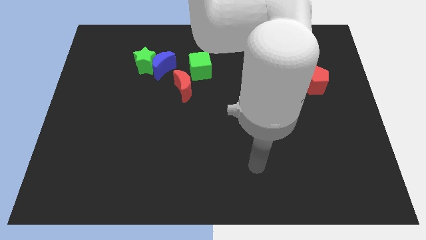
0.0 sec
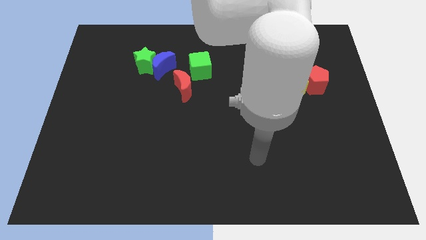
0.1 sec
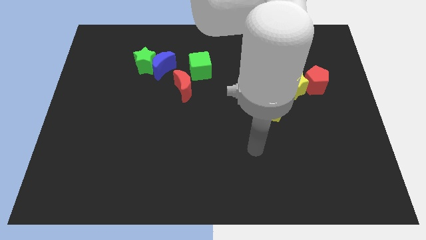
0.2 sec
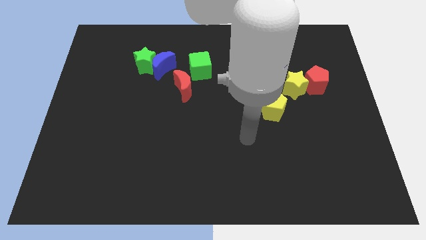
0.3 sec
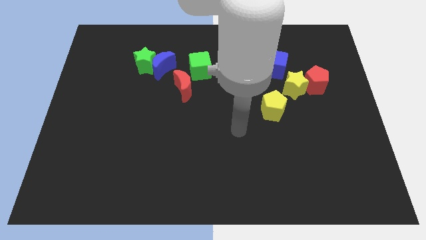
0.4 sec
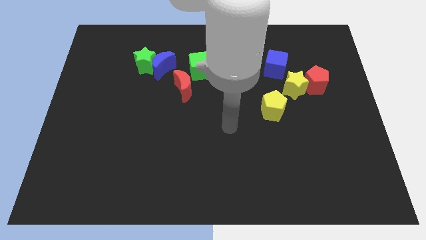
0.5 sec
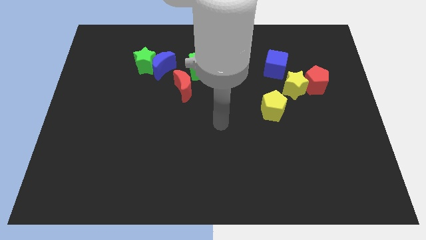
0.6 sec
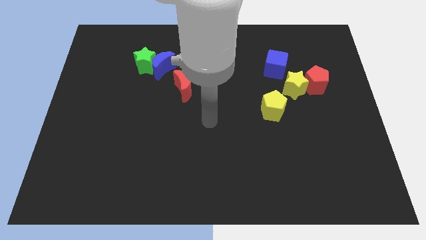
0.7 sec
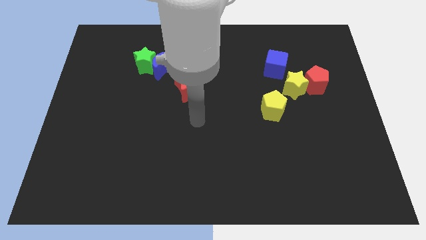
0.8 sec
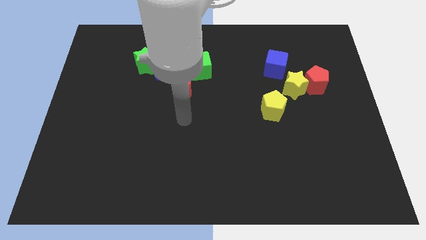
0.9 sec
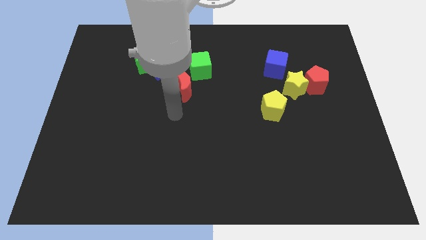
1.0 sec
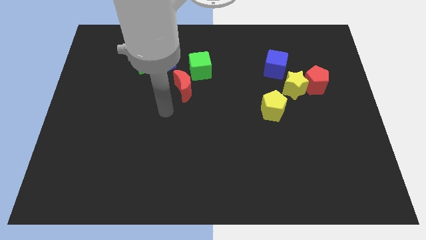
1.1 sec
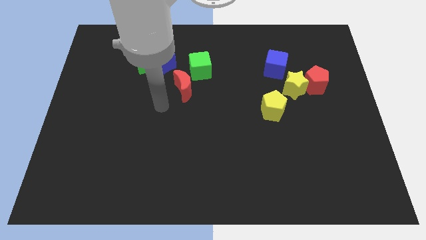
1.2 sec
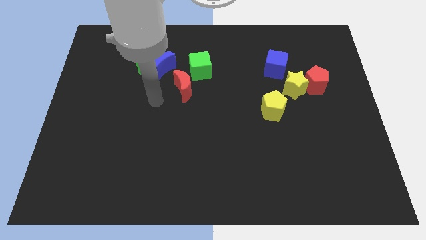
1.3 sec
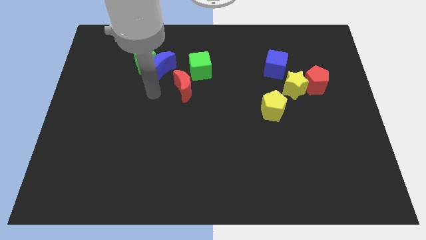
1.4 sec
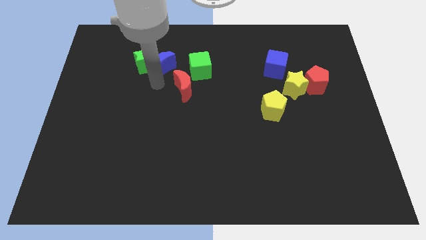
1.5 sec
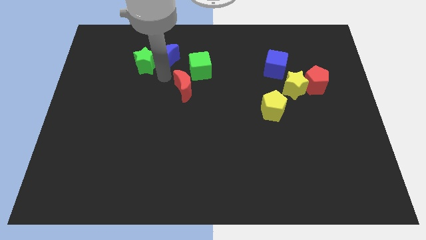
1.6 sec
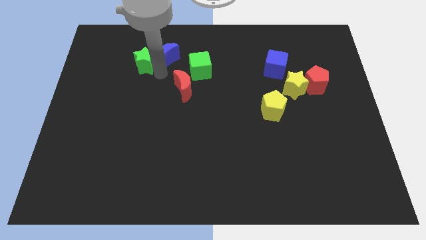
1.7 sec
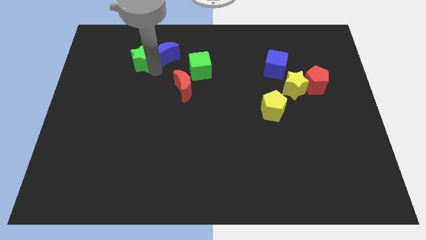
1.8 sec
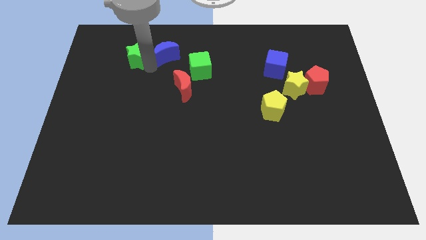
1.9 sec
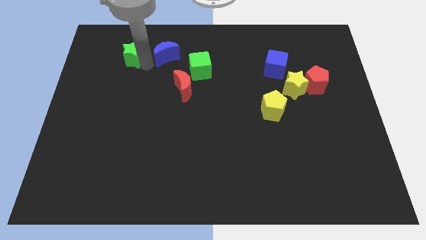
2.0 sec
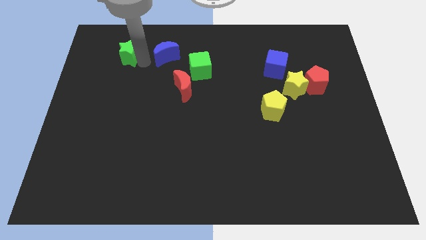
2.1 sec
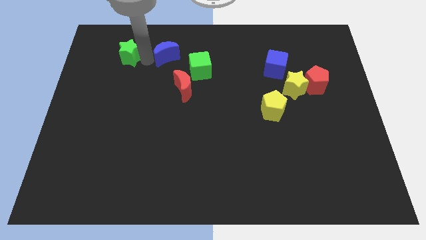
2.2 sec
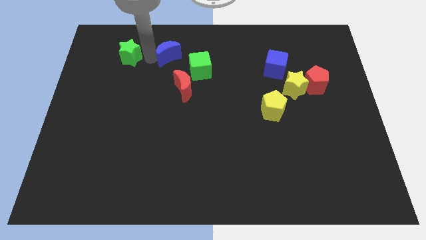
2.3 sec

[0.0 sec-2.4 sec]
separate the green star from the blue moon

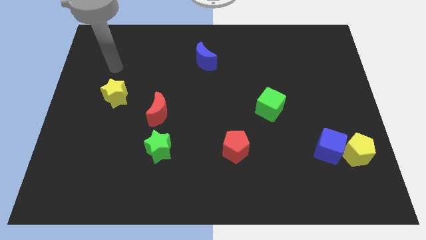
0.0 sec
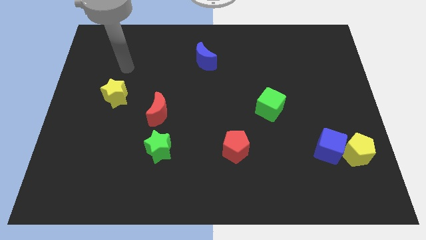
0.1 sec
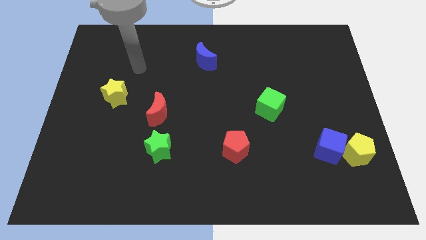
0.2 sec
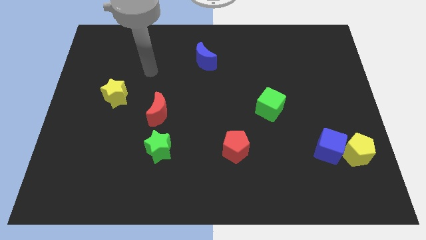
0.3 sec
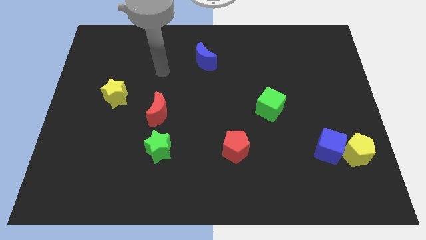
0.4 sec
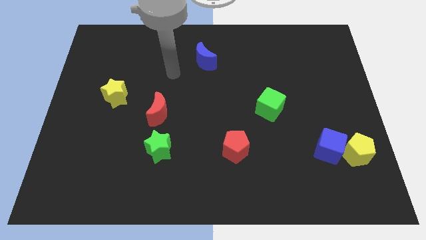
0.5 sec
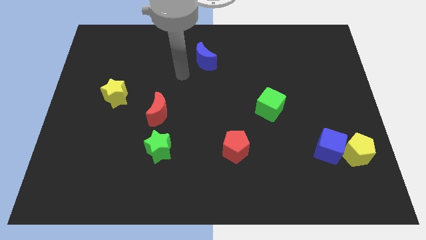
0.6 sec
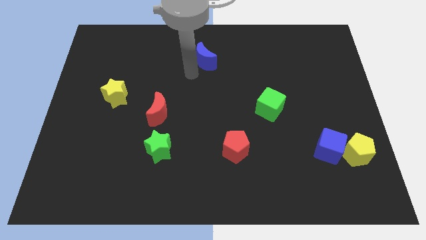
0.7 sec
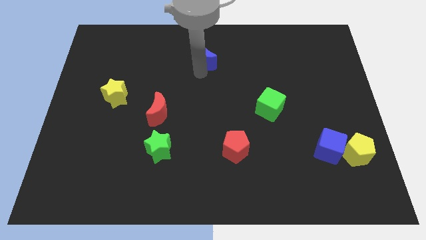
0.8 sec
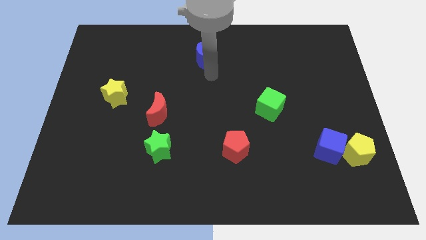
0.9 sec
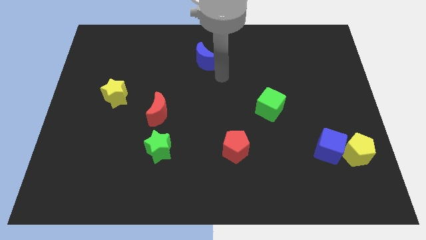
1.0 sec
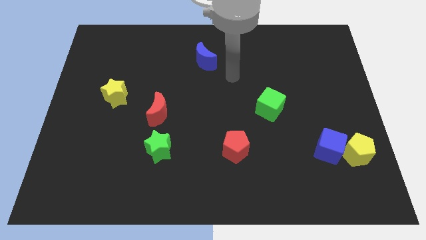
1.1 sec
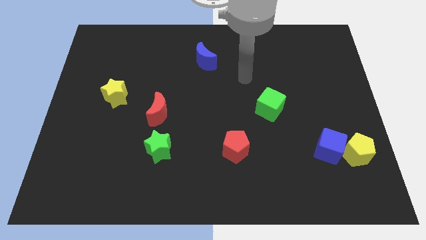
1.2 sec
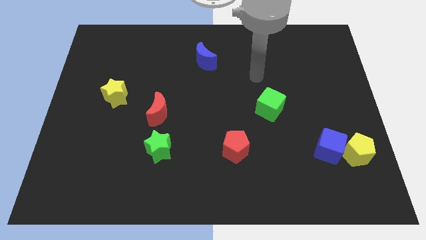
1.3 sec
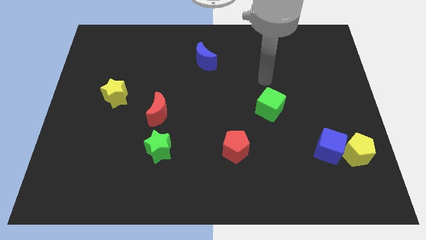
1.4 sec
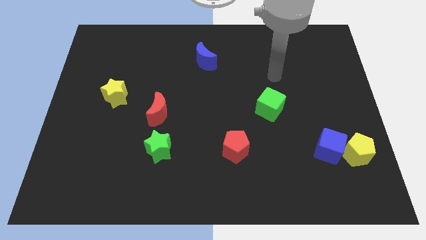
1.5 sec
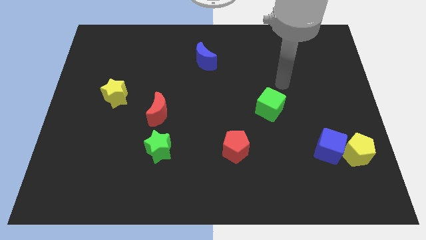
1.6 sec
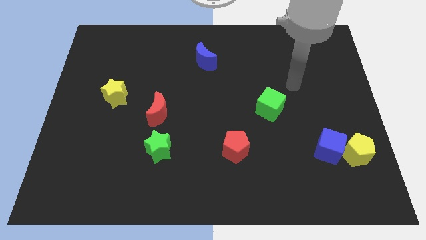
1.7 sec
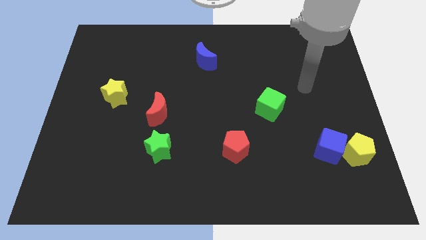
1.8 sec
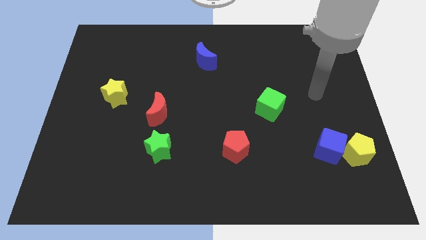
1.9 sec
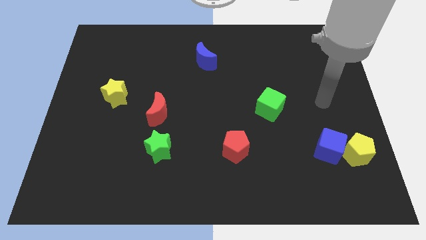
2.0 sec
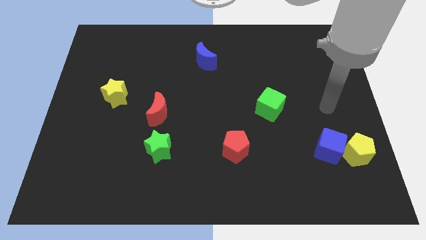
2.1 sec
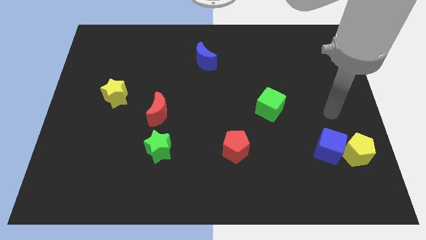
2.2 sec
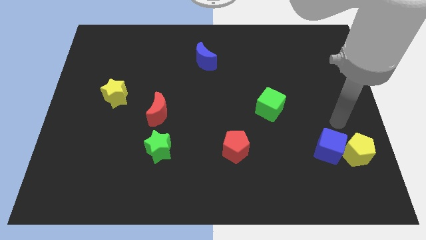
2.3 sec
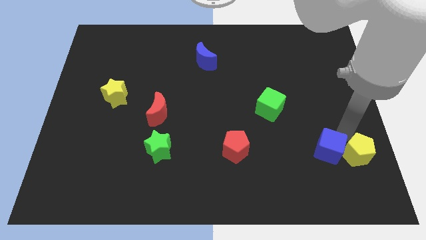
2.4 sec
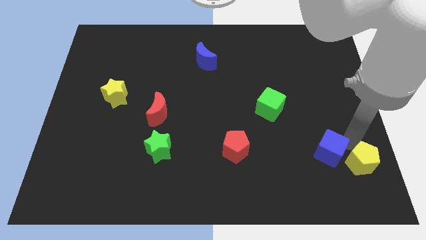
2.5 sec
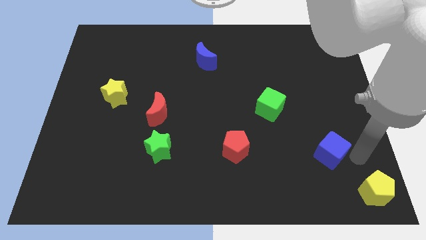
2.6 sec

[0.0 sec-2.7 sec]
separate the blue cube from the yellow pentagon

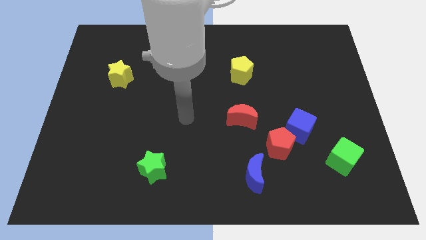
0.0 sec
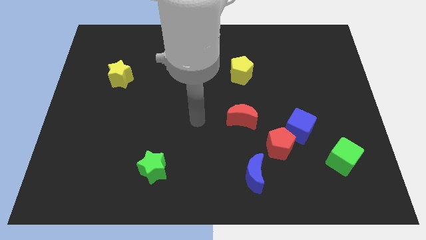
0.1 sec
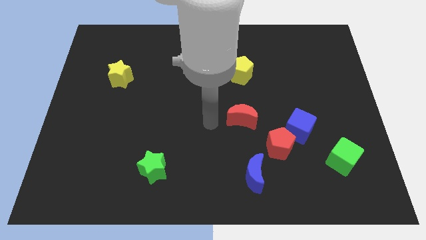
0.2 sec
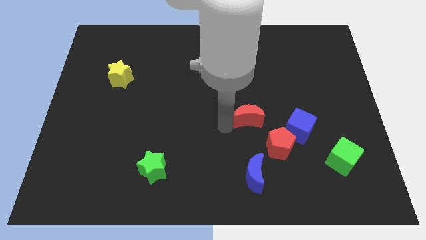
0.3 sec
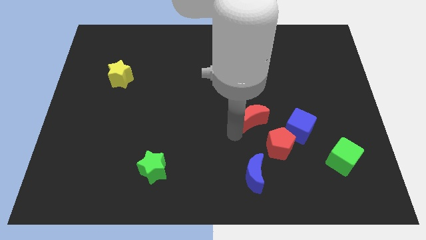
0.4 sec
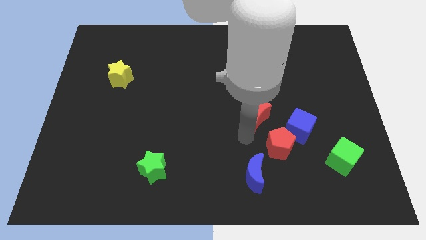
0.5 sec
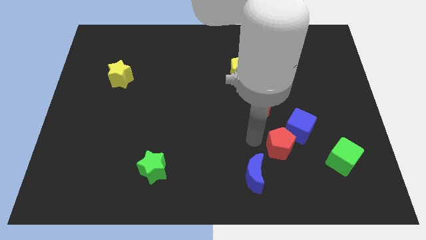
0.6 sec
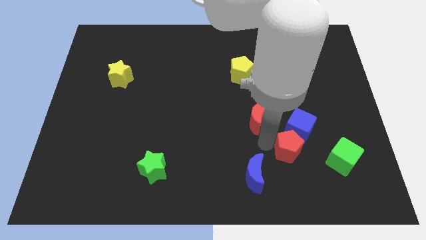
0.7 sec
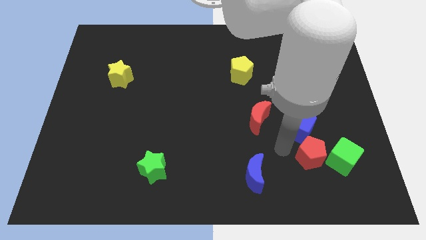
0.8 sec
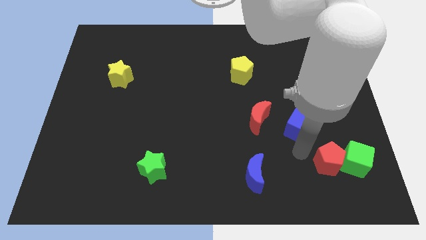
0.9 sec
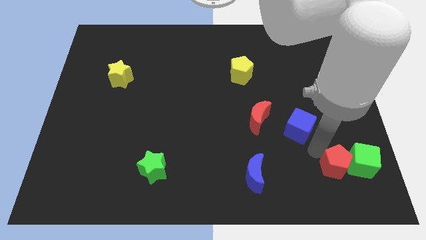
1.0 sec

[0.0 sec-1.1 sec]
move the blue cube away from the red pentagon

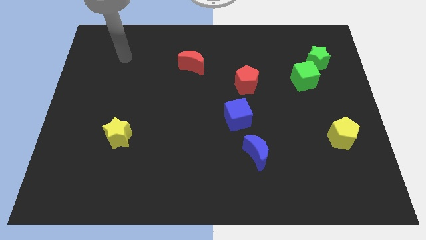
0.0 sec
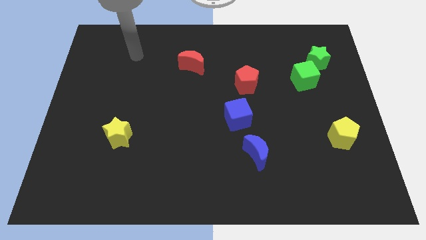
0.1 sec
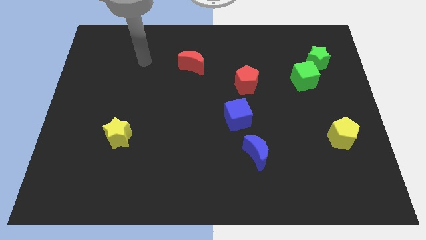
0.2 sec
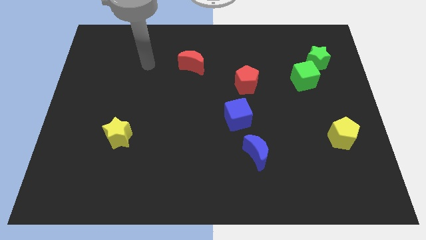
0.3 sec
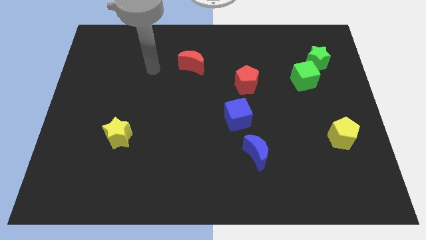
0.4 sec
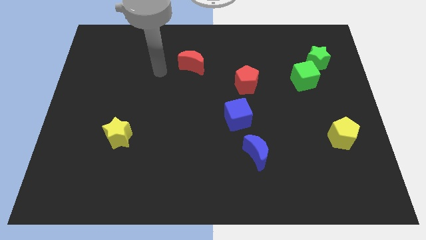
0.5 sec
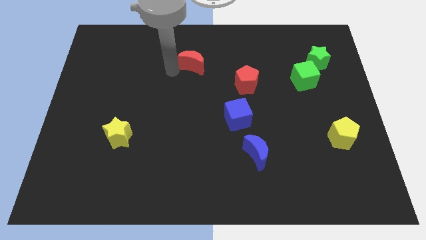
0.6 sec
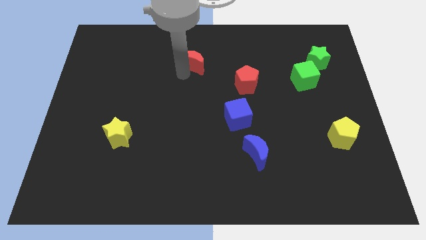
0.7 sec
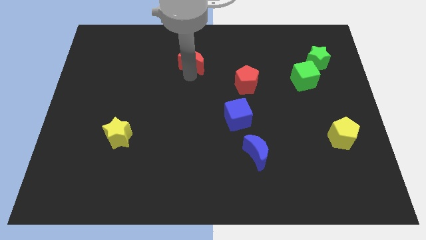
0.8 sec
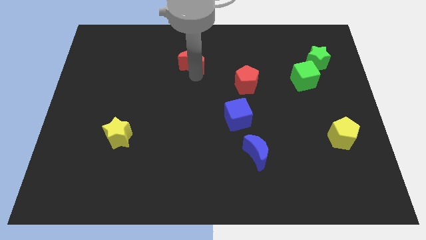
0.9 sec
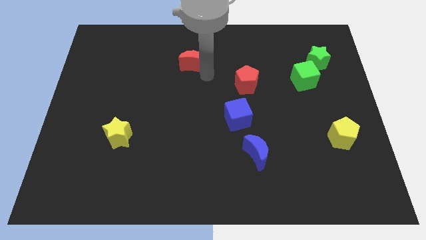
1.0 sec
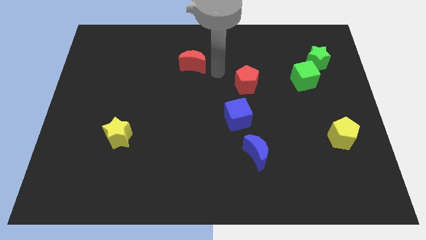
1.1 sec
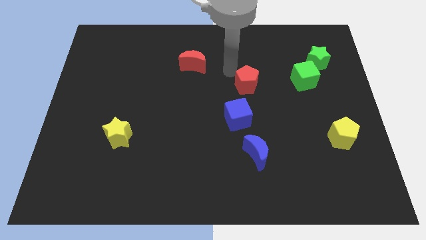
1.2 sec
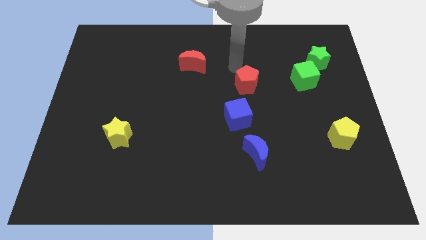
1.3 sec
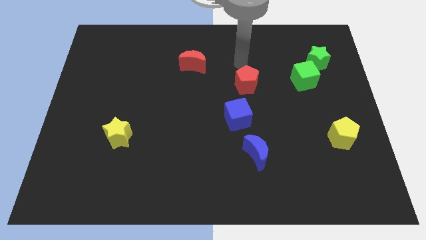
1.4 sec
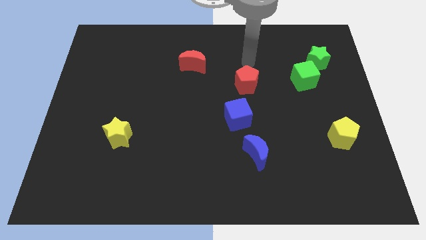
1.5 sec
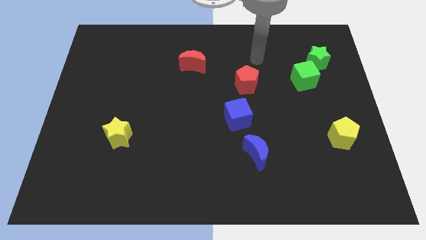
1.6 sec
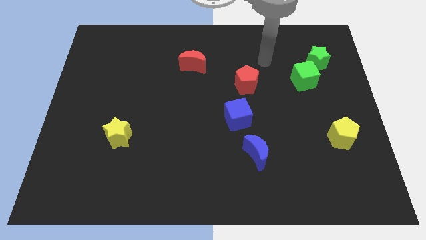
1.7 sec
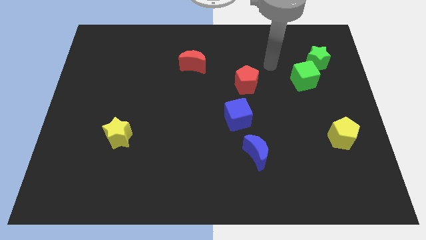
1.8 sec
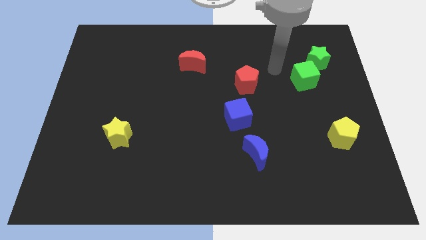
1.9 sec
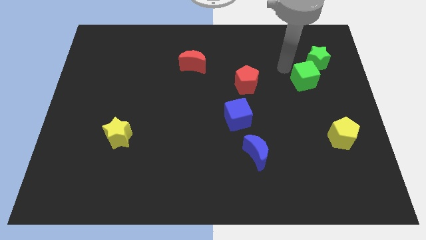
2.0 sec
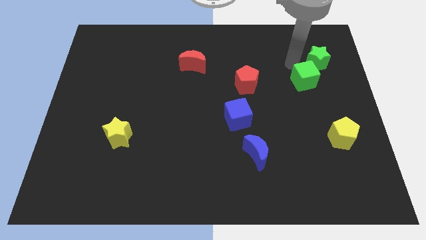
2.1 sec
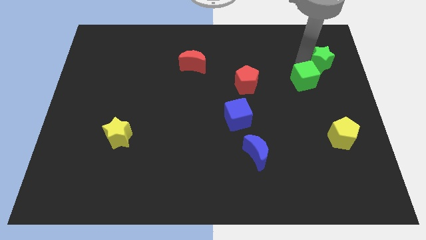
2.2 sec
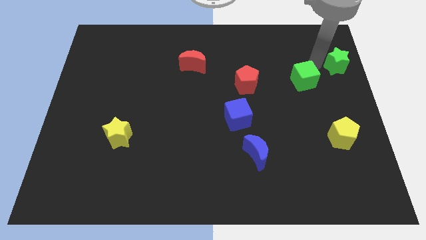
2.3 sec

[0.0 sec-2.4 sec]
separate the green cube from the green star

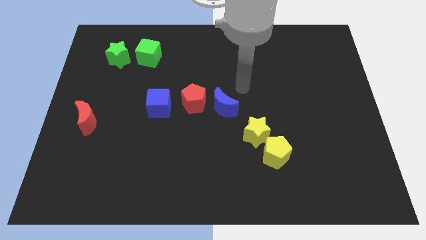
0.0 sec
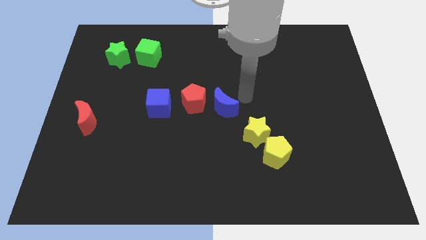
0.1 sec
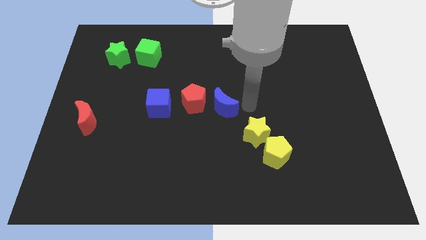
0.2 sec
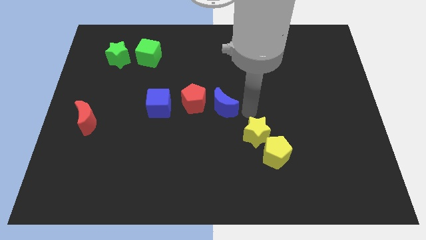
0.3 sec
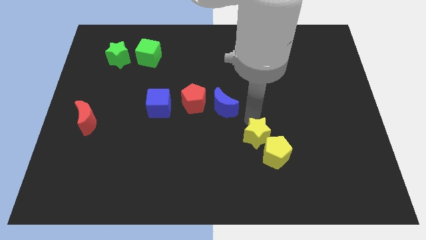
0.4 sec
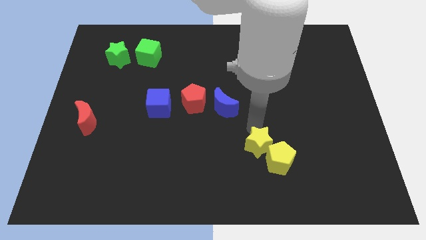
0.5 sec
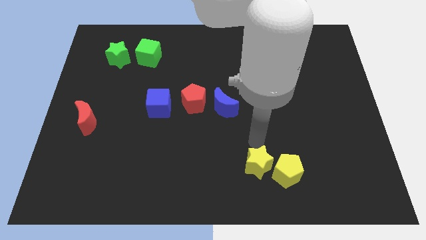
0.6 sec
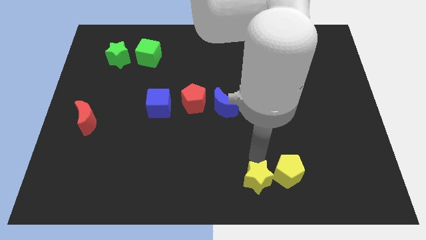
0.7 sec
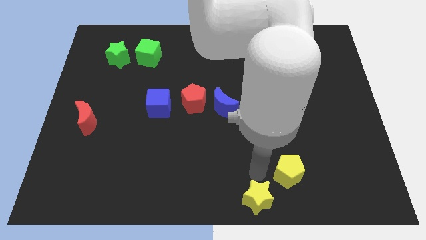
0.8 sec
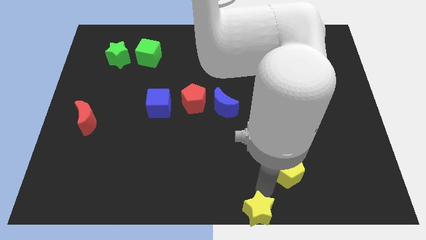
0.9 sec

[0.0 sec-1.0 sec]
pull the yellow pentagon apart from the yellow star
